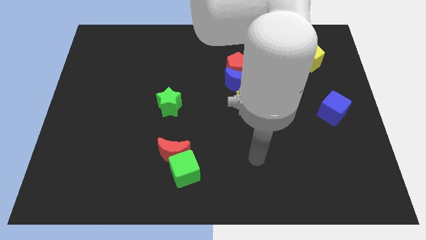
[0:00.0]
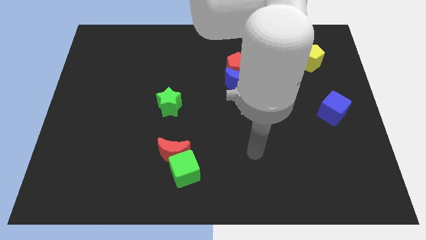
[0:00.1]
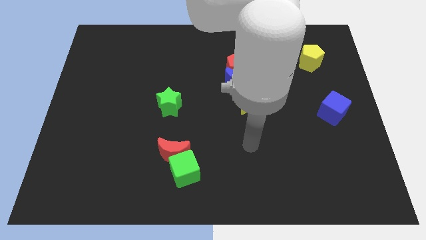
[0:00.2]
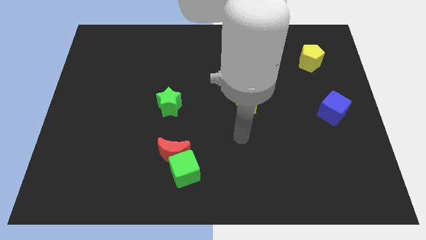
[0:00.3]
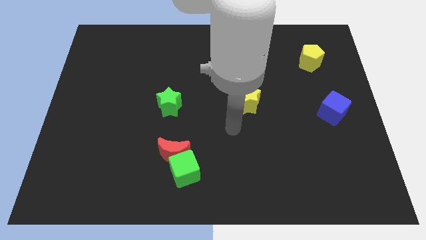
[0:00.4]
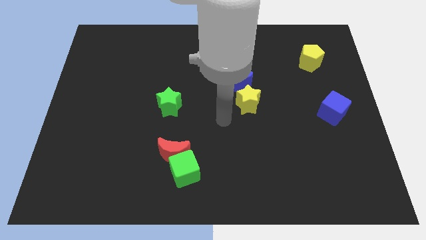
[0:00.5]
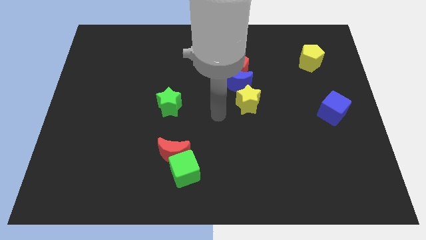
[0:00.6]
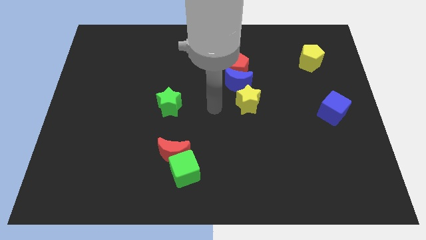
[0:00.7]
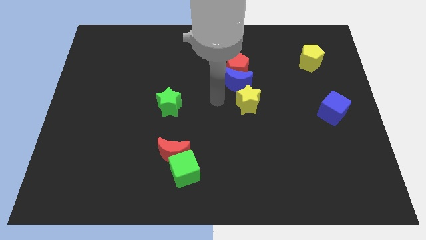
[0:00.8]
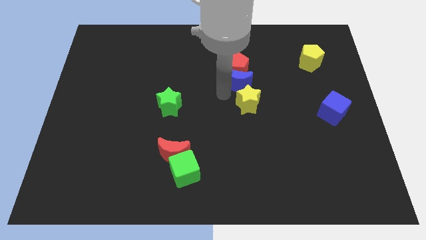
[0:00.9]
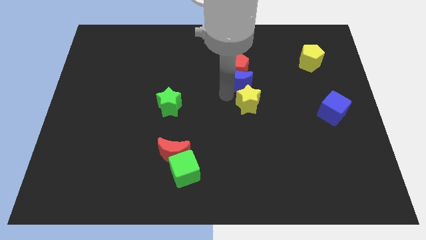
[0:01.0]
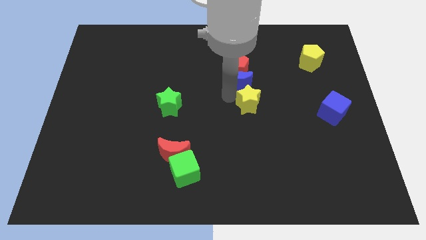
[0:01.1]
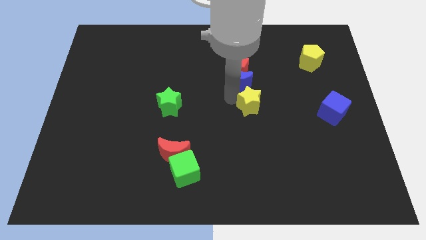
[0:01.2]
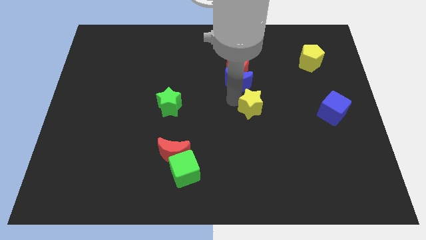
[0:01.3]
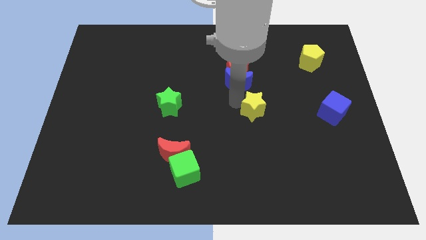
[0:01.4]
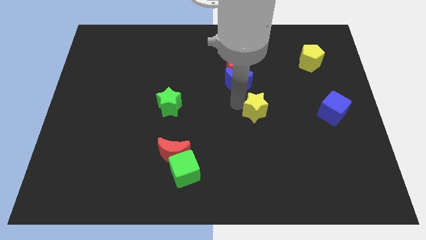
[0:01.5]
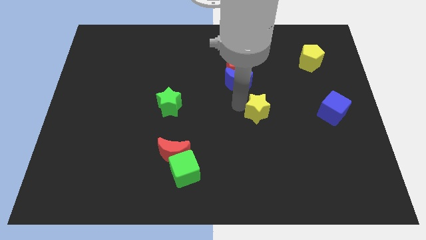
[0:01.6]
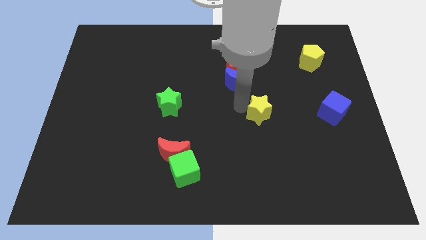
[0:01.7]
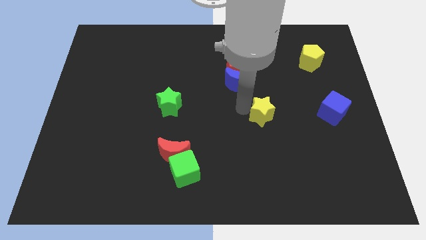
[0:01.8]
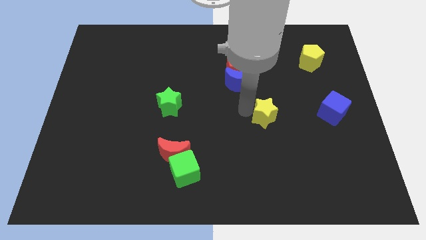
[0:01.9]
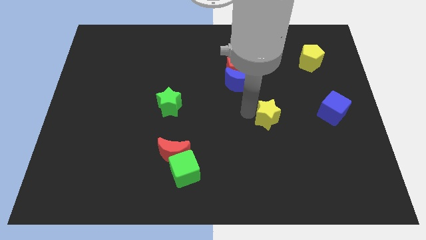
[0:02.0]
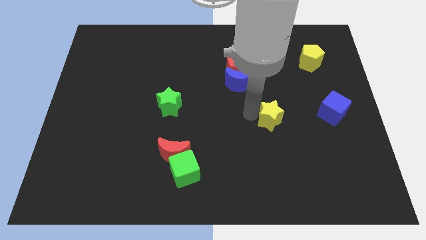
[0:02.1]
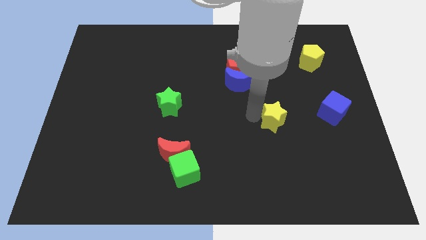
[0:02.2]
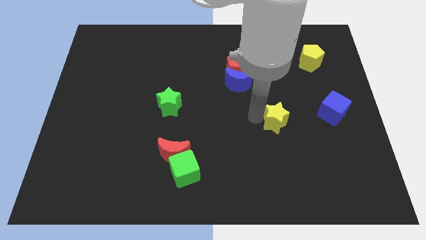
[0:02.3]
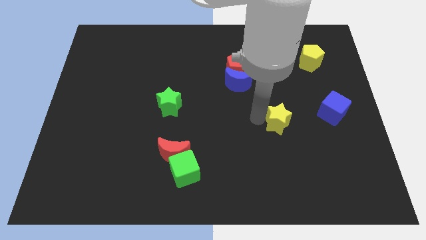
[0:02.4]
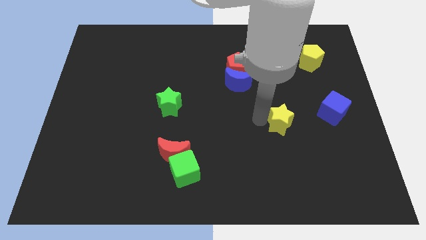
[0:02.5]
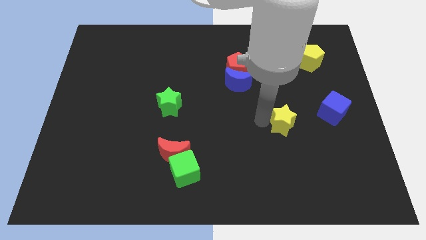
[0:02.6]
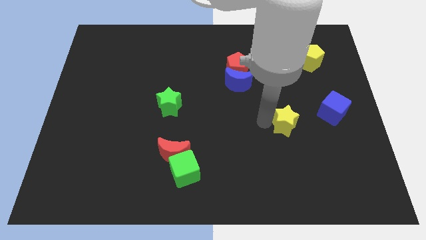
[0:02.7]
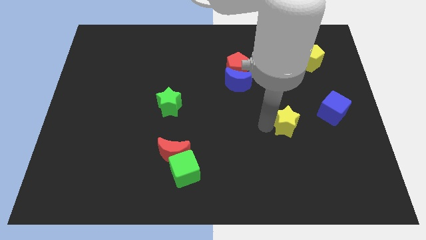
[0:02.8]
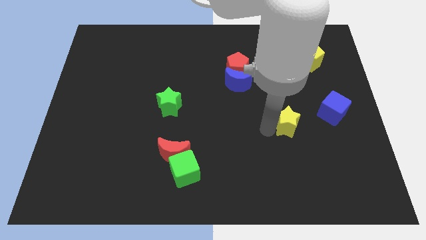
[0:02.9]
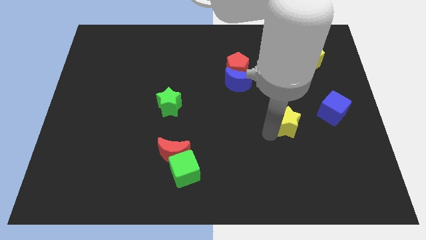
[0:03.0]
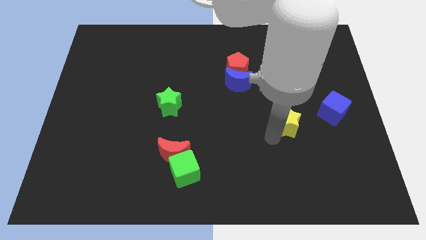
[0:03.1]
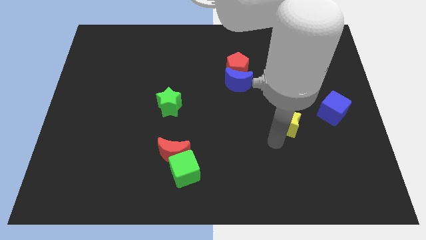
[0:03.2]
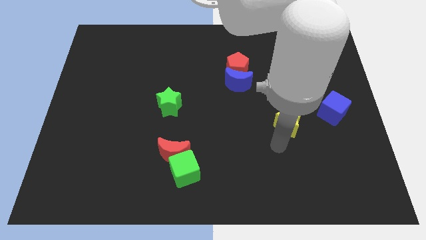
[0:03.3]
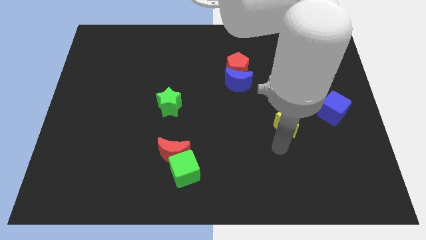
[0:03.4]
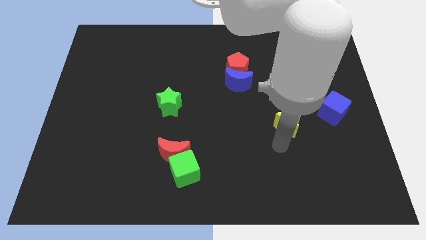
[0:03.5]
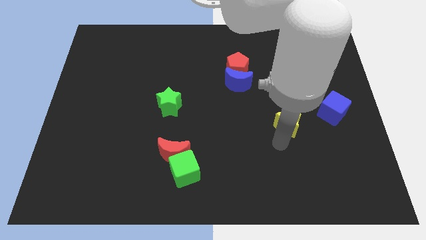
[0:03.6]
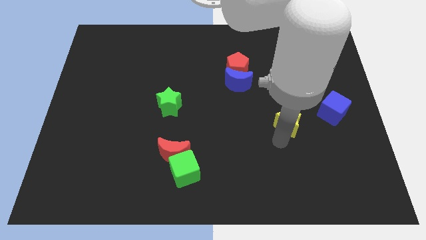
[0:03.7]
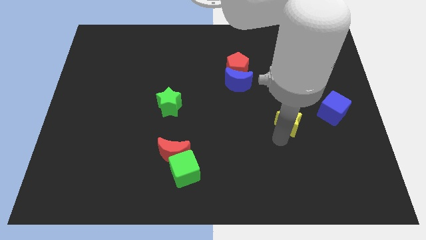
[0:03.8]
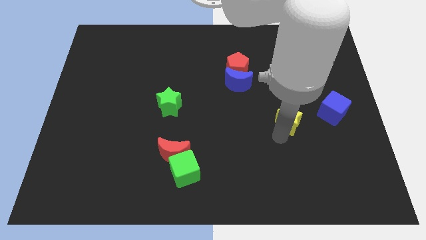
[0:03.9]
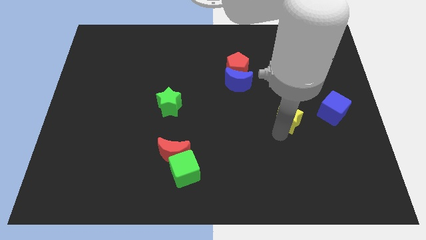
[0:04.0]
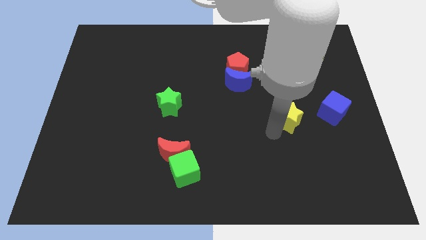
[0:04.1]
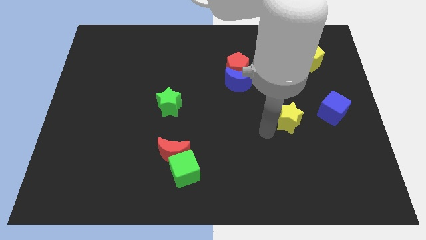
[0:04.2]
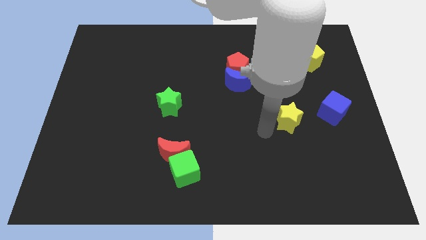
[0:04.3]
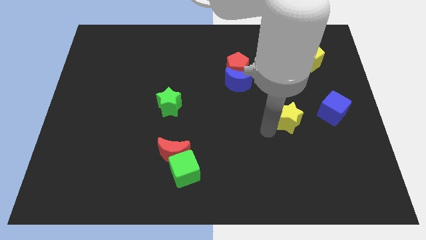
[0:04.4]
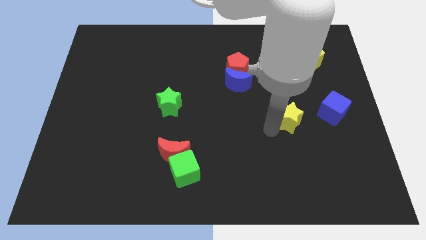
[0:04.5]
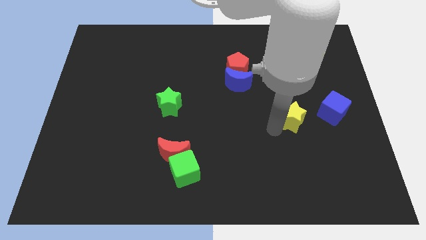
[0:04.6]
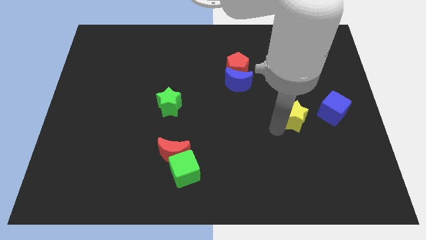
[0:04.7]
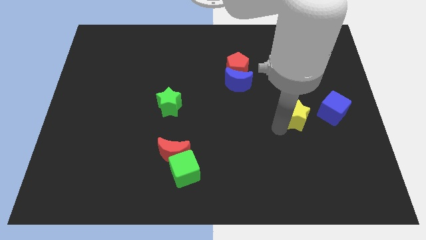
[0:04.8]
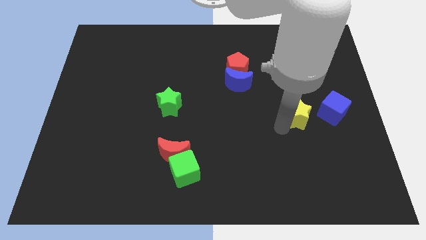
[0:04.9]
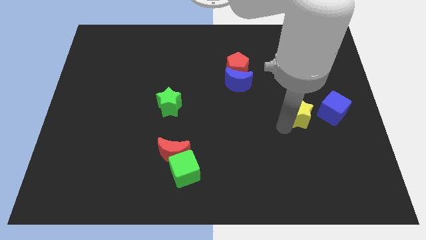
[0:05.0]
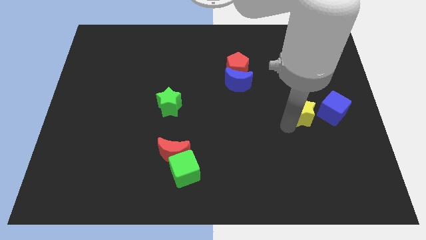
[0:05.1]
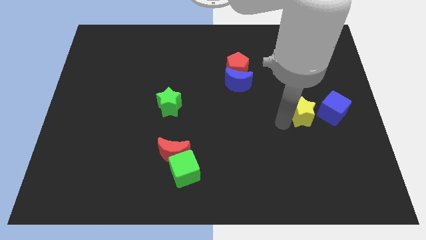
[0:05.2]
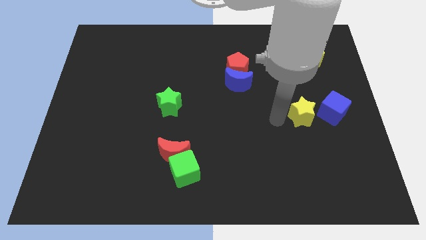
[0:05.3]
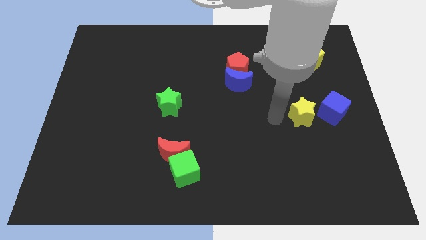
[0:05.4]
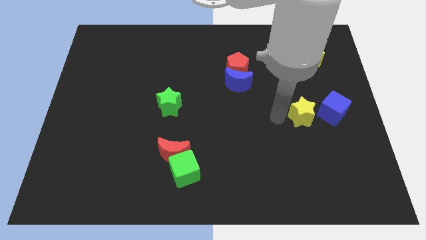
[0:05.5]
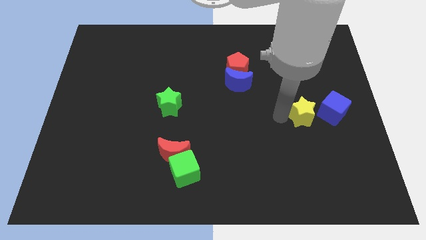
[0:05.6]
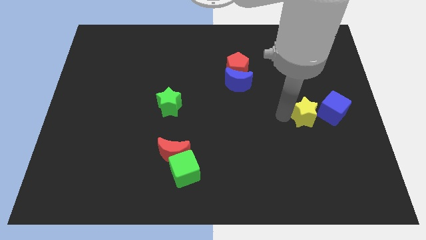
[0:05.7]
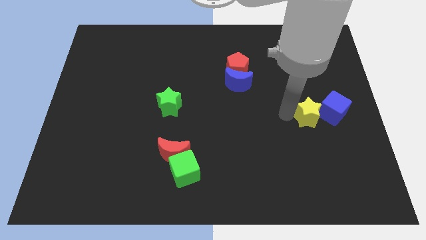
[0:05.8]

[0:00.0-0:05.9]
move the yellow star next to the blue cube

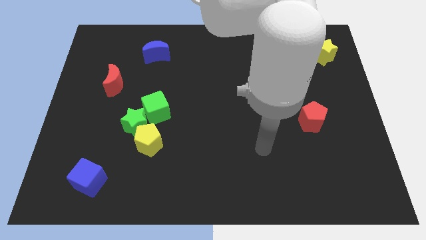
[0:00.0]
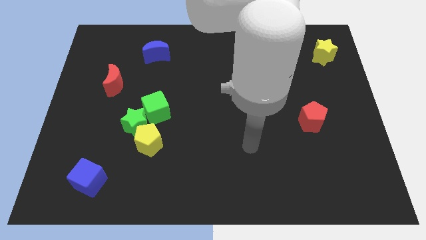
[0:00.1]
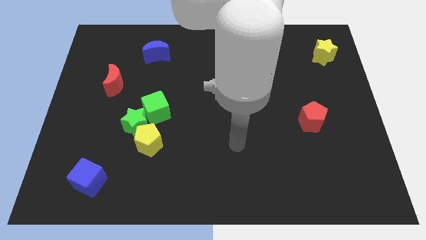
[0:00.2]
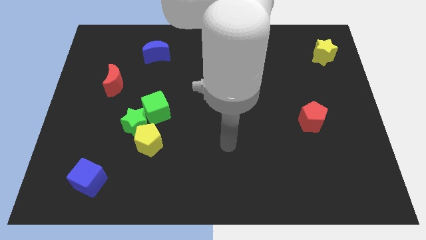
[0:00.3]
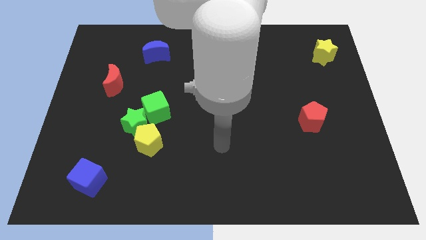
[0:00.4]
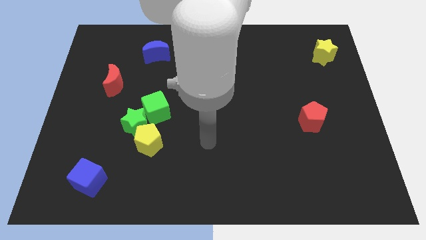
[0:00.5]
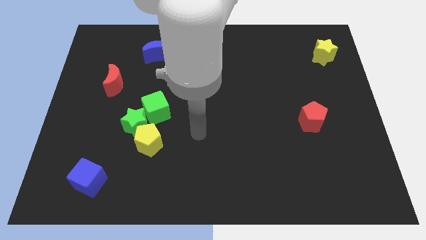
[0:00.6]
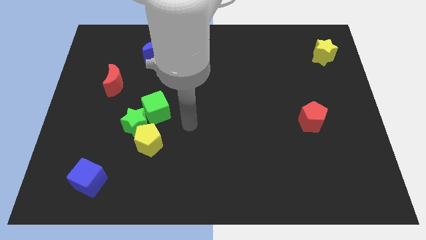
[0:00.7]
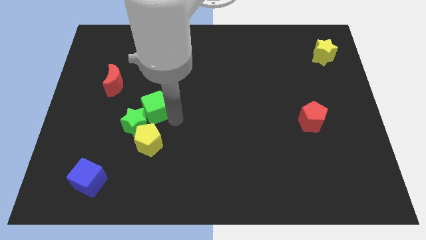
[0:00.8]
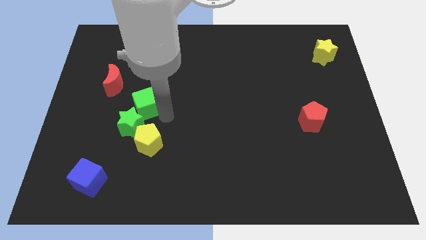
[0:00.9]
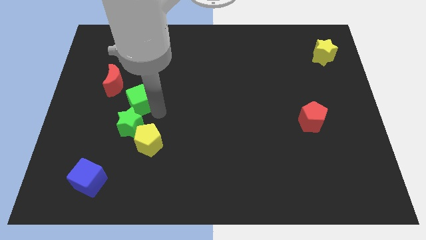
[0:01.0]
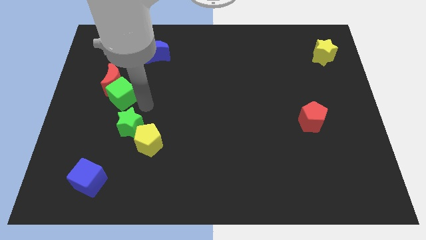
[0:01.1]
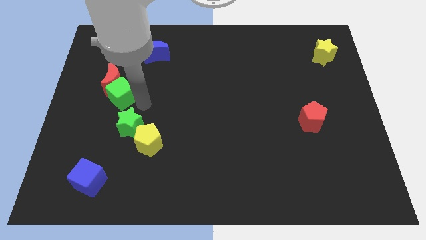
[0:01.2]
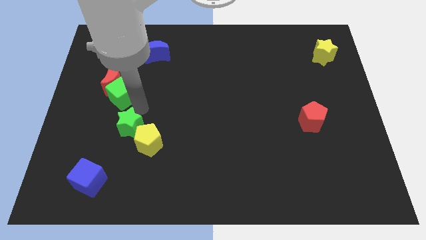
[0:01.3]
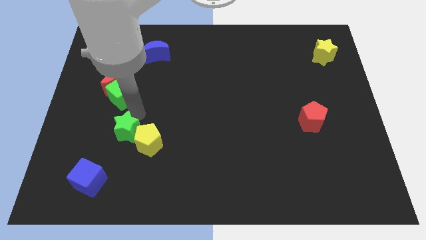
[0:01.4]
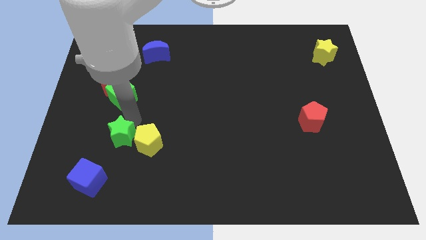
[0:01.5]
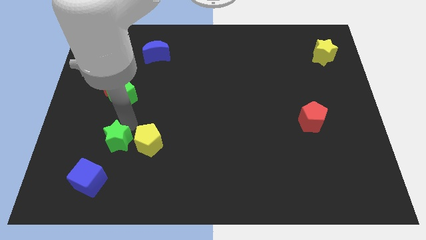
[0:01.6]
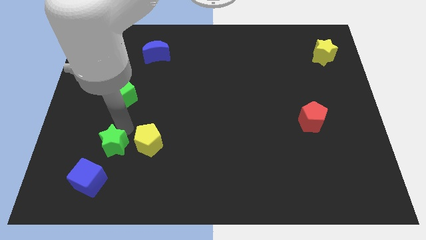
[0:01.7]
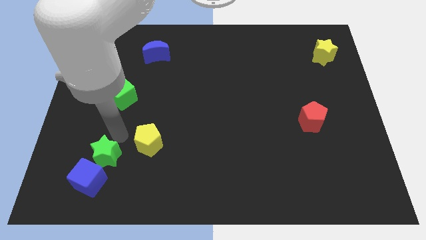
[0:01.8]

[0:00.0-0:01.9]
push the green star towards the blue cube
